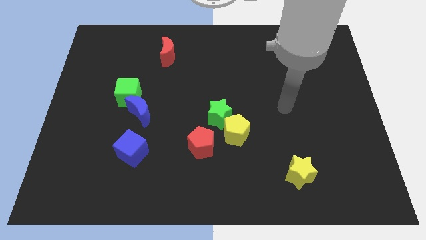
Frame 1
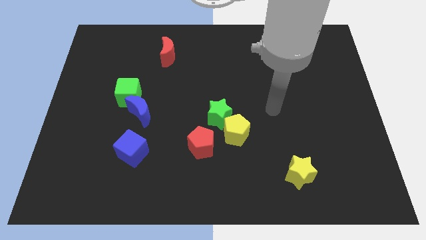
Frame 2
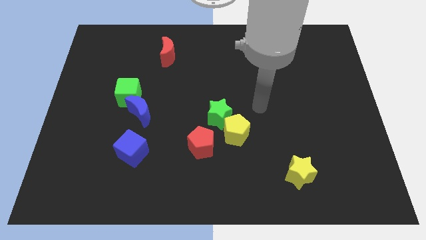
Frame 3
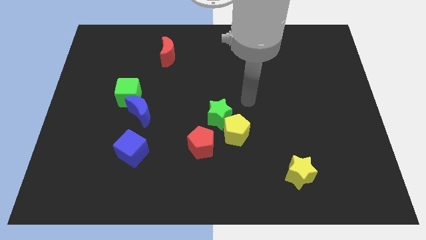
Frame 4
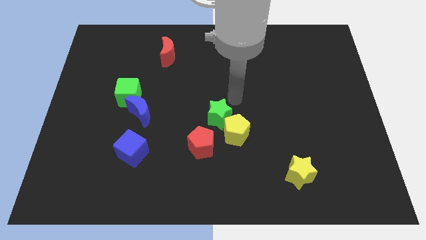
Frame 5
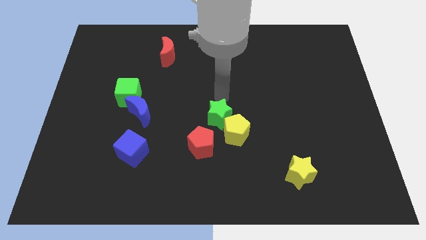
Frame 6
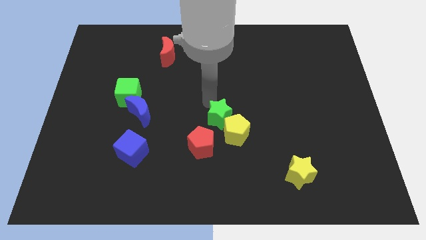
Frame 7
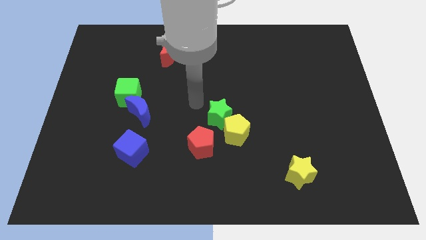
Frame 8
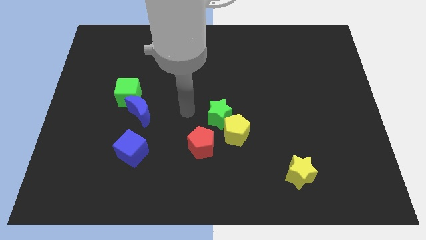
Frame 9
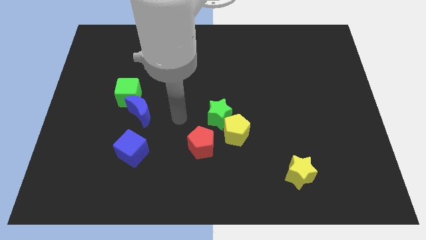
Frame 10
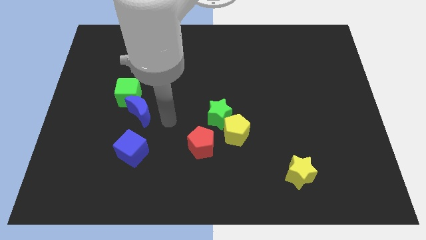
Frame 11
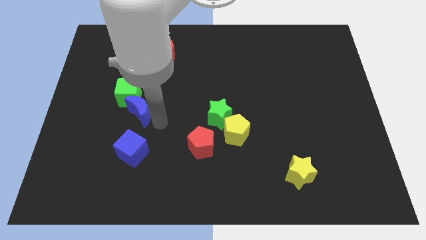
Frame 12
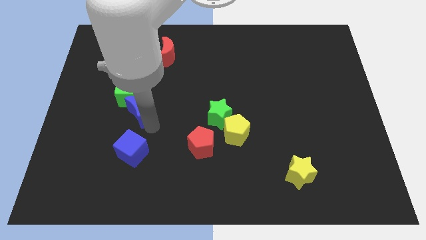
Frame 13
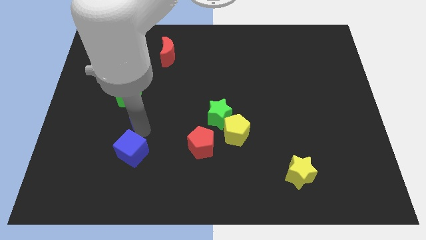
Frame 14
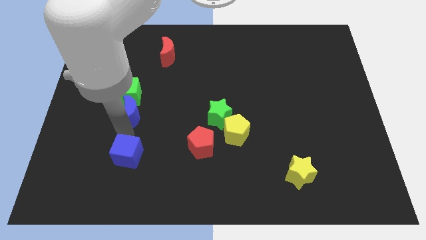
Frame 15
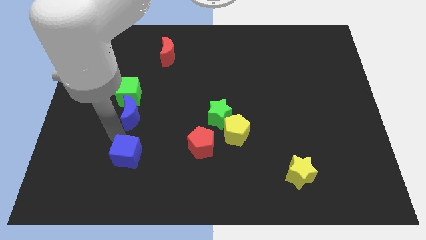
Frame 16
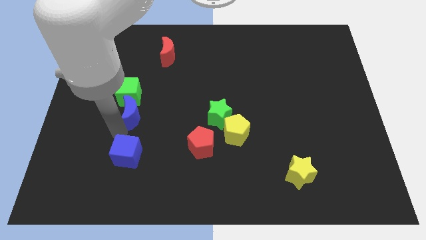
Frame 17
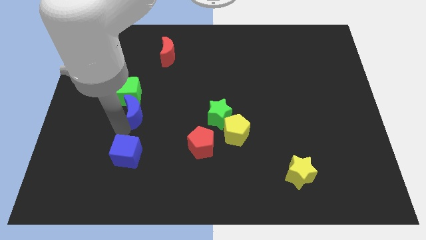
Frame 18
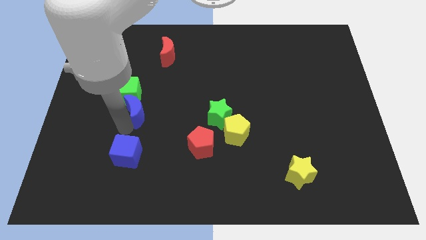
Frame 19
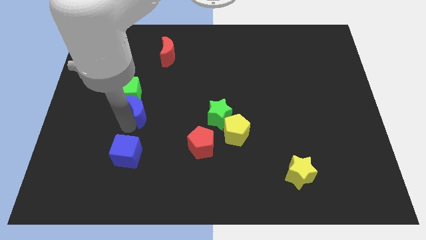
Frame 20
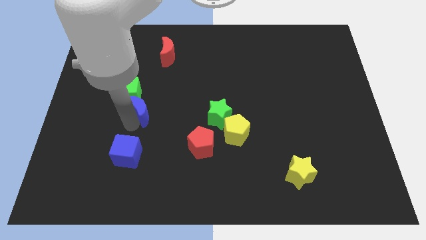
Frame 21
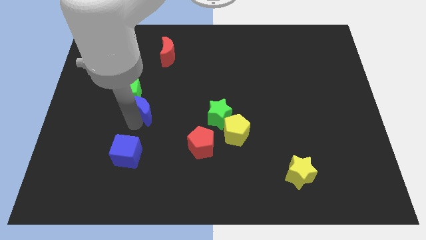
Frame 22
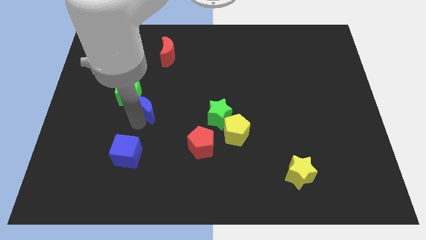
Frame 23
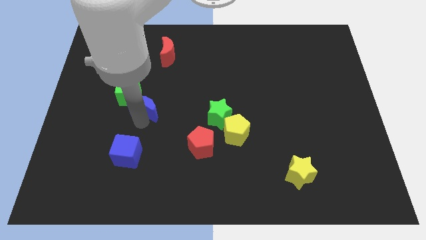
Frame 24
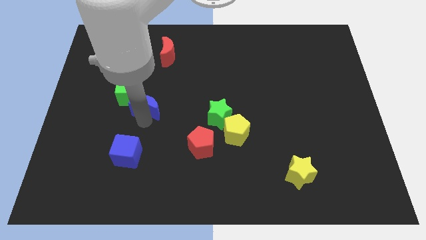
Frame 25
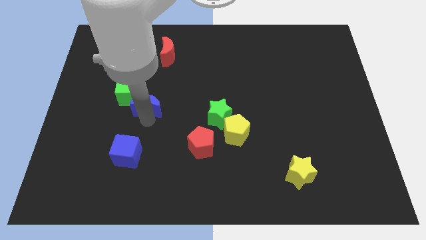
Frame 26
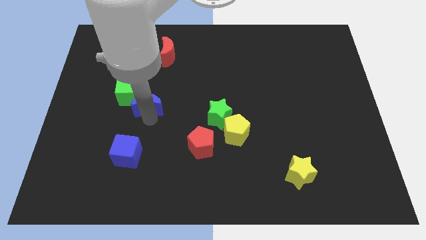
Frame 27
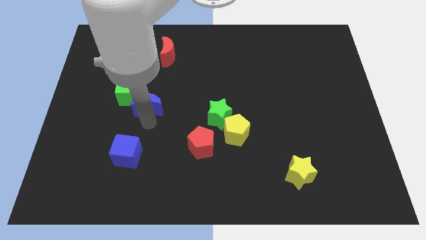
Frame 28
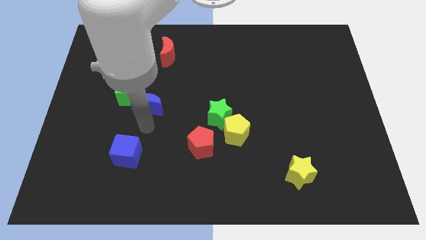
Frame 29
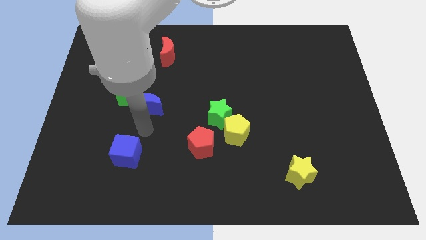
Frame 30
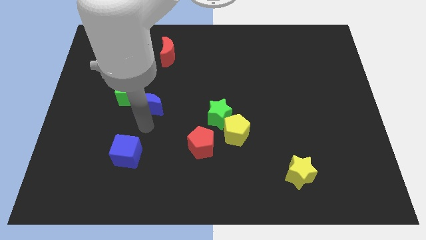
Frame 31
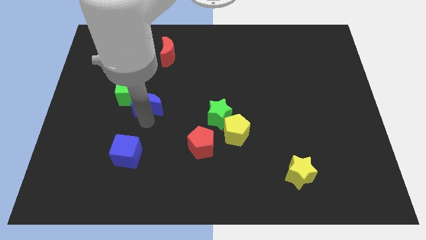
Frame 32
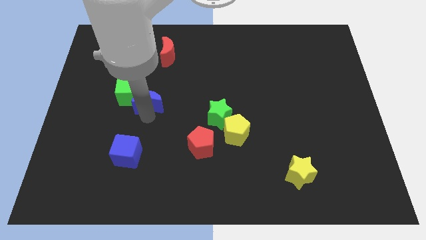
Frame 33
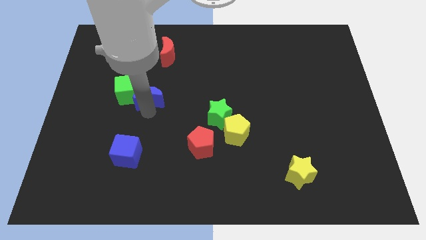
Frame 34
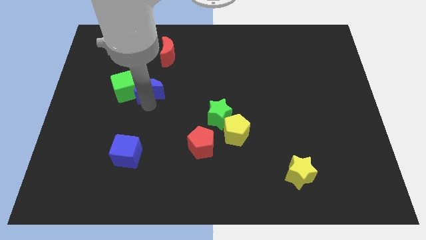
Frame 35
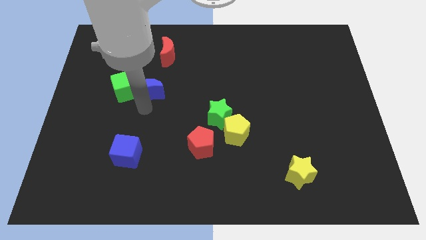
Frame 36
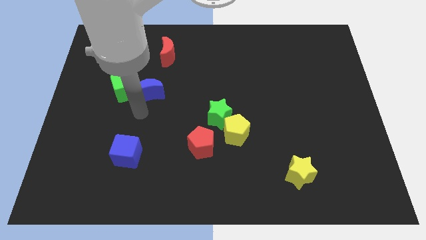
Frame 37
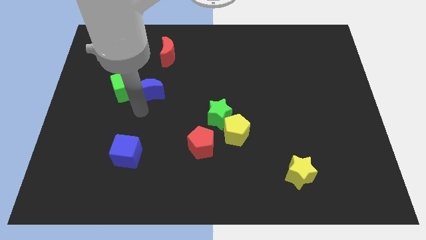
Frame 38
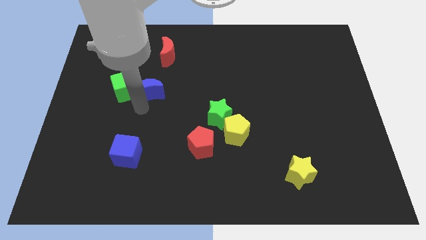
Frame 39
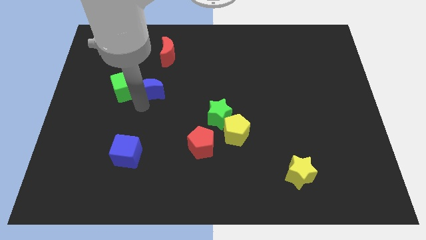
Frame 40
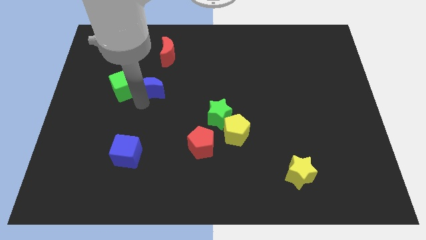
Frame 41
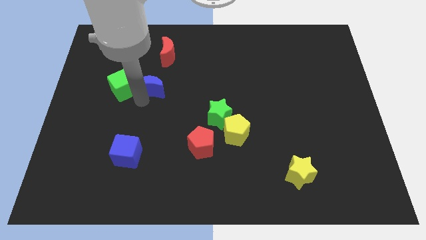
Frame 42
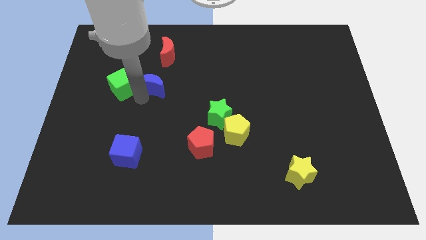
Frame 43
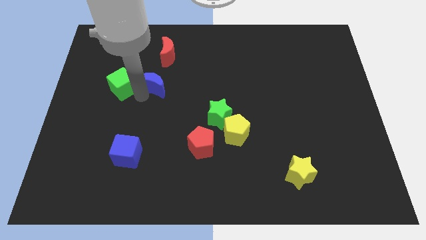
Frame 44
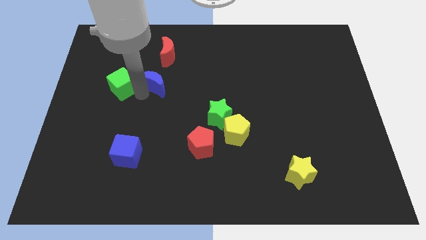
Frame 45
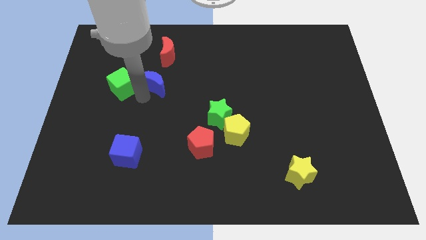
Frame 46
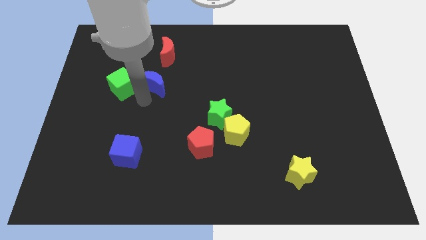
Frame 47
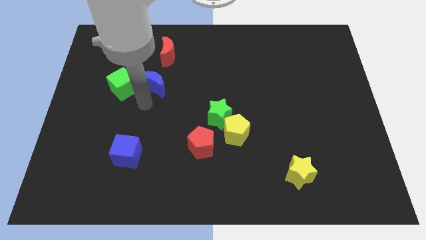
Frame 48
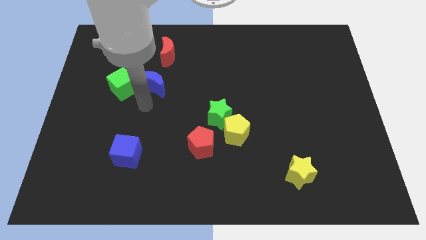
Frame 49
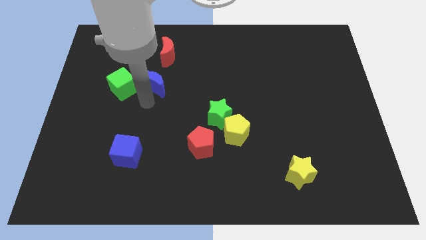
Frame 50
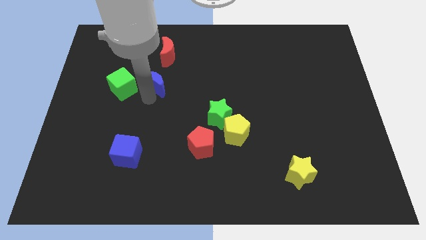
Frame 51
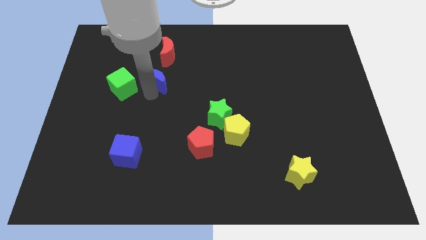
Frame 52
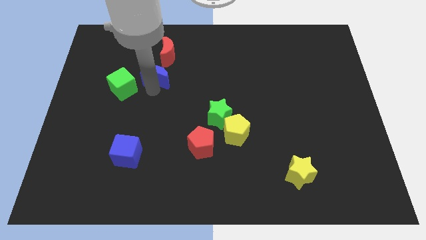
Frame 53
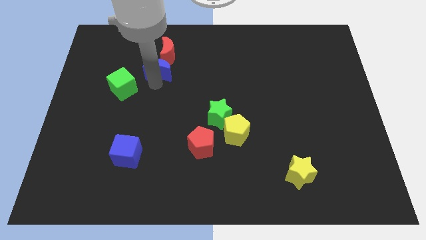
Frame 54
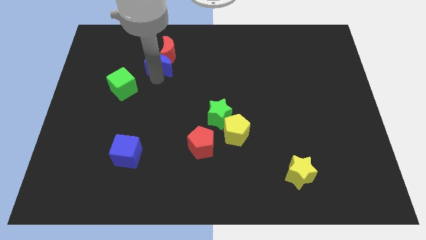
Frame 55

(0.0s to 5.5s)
put the blue moon next to the red moon

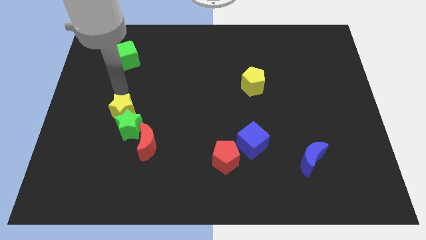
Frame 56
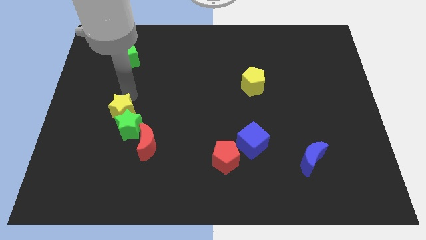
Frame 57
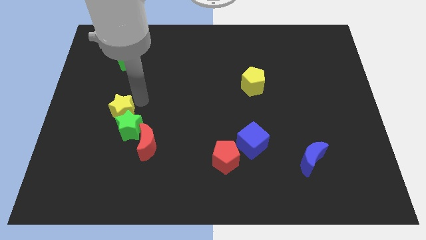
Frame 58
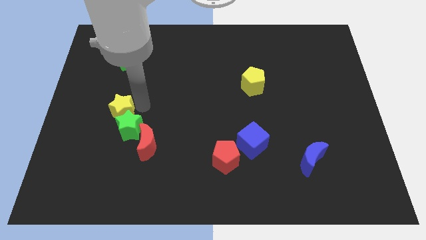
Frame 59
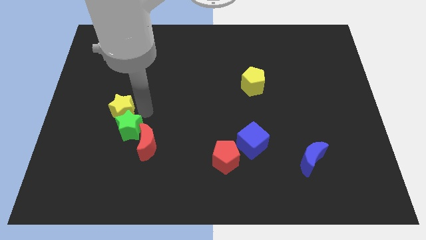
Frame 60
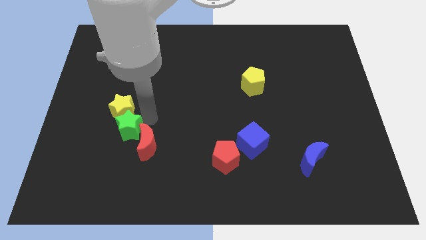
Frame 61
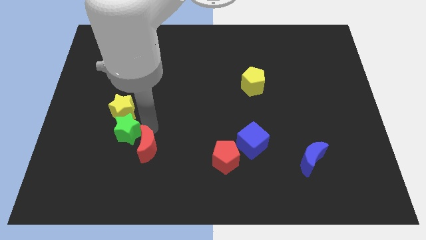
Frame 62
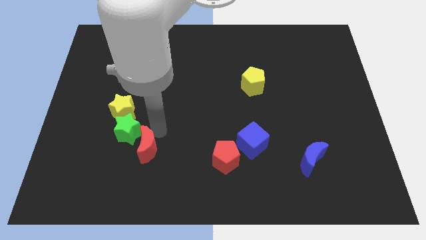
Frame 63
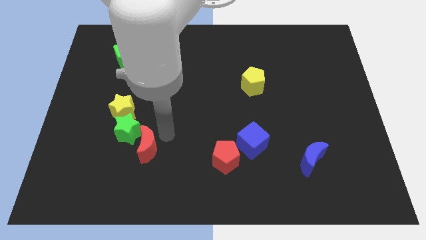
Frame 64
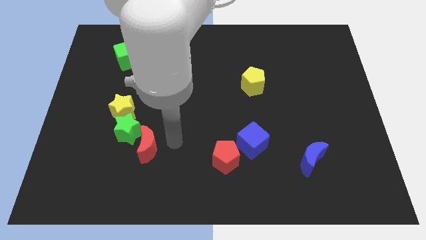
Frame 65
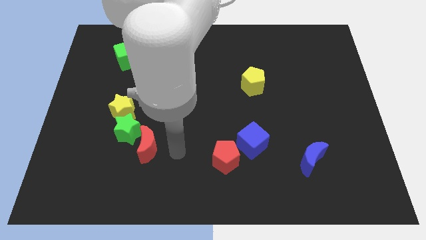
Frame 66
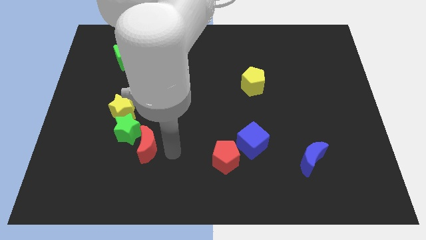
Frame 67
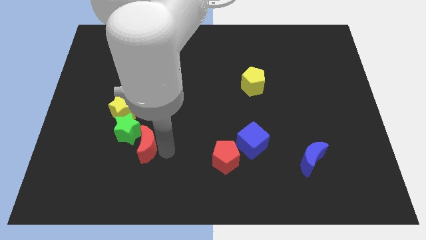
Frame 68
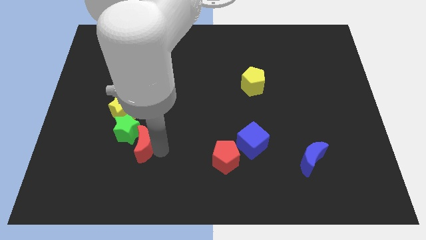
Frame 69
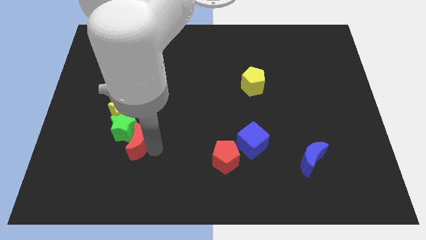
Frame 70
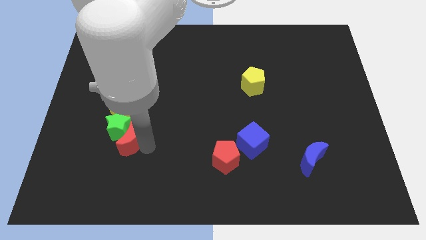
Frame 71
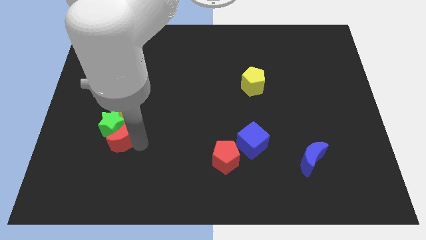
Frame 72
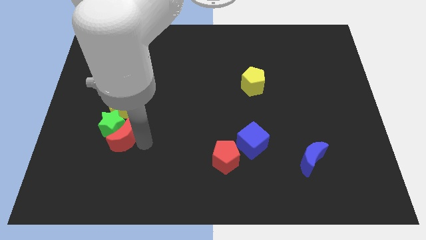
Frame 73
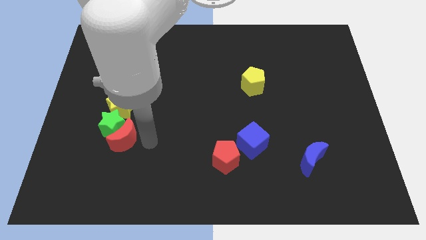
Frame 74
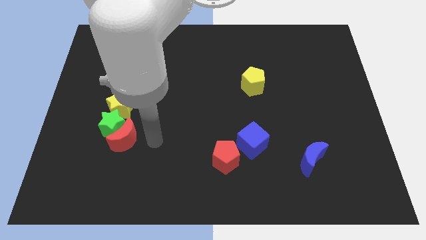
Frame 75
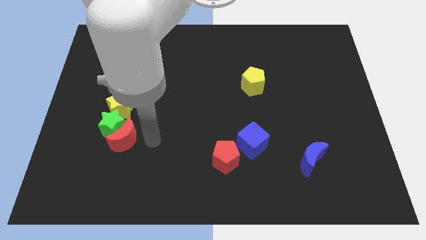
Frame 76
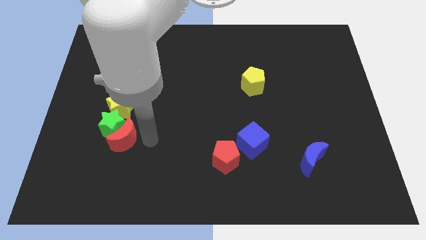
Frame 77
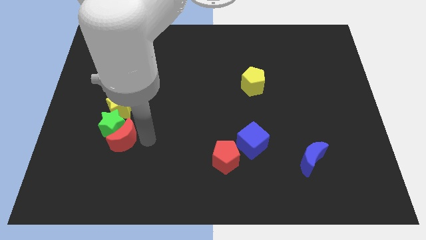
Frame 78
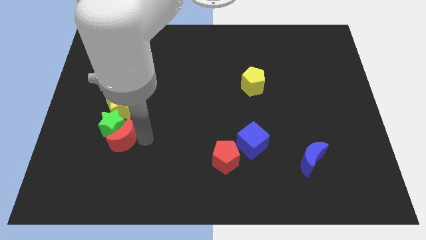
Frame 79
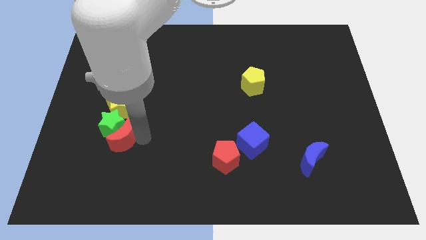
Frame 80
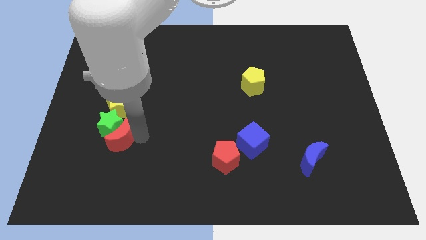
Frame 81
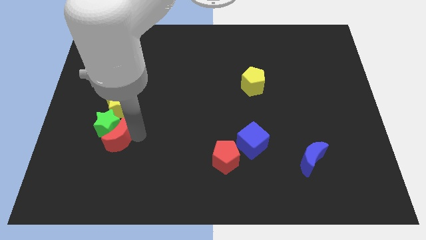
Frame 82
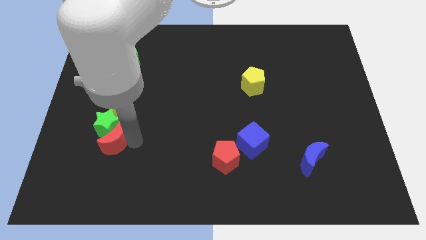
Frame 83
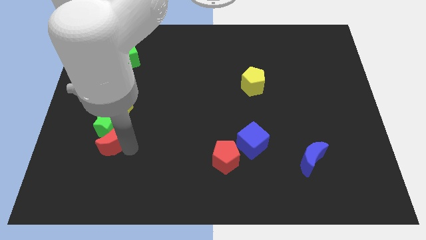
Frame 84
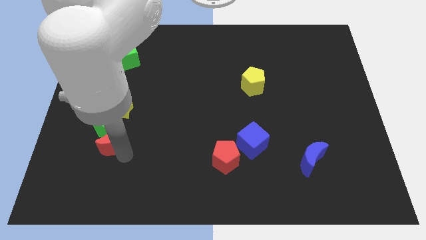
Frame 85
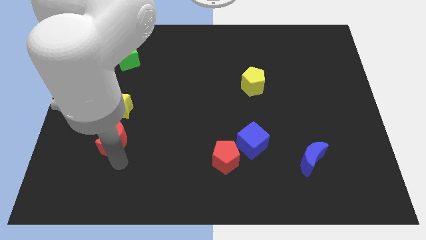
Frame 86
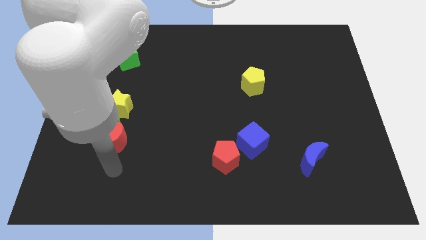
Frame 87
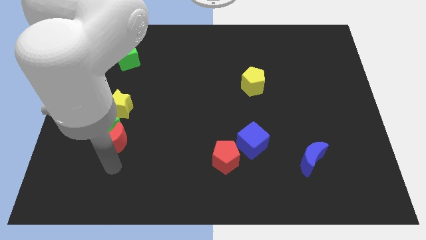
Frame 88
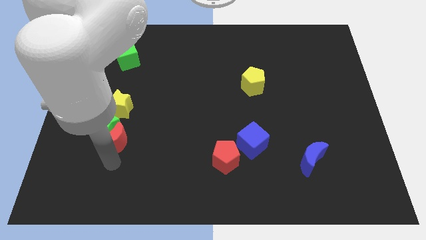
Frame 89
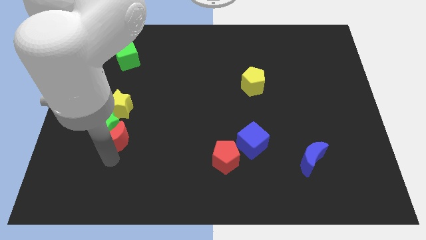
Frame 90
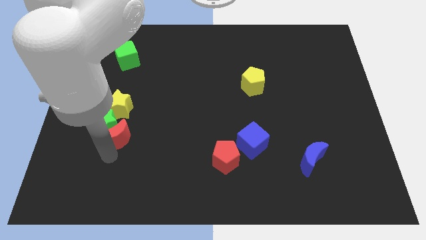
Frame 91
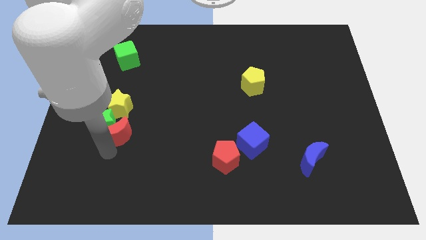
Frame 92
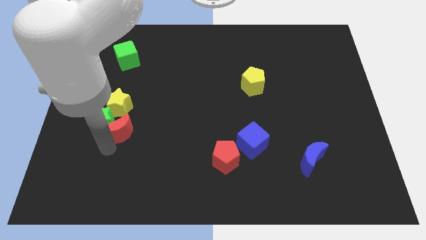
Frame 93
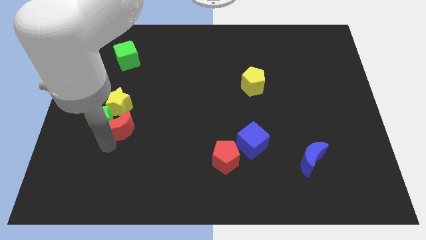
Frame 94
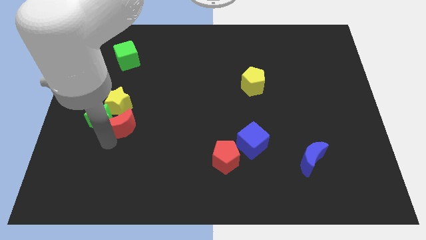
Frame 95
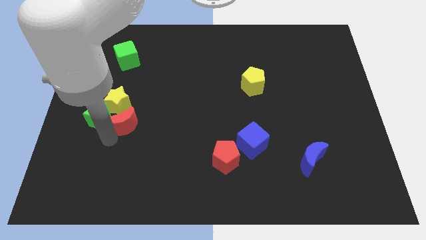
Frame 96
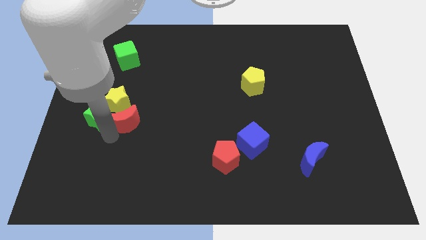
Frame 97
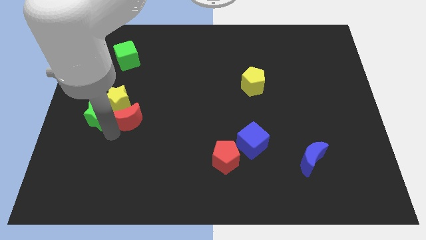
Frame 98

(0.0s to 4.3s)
push the red moon close to the yellow star
